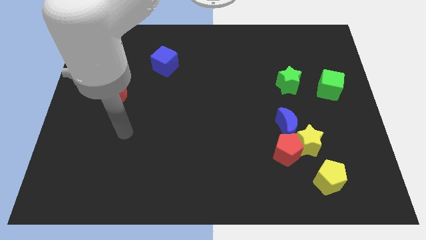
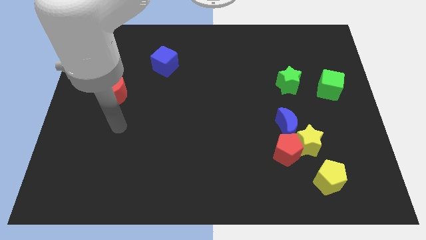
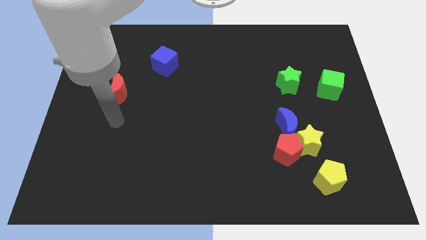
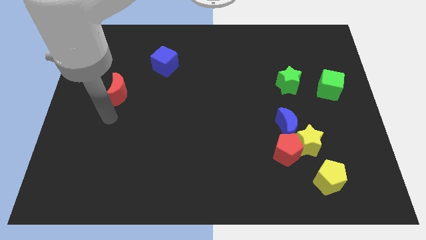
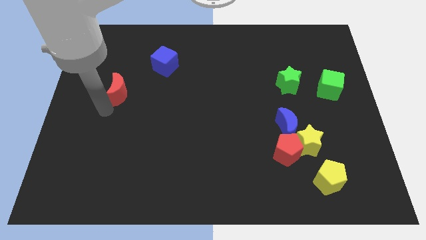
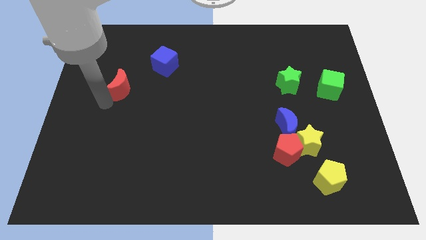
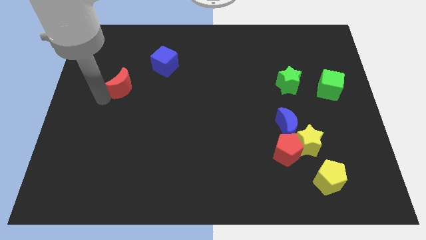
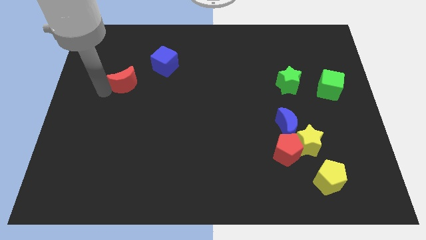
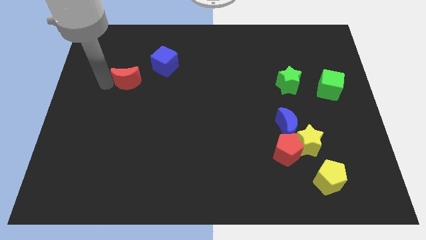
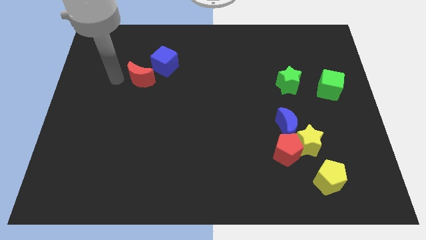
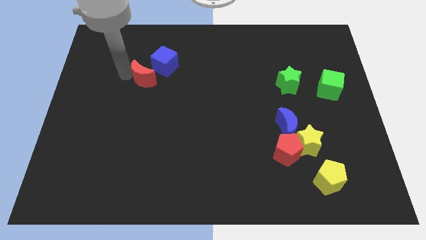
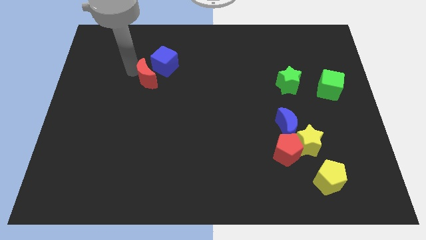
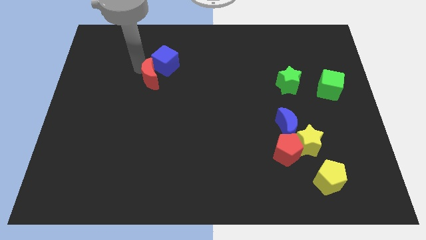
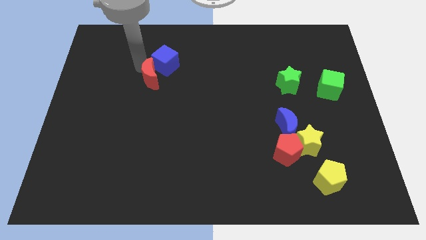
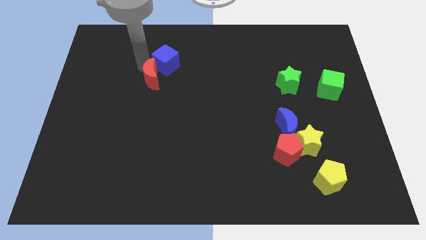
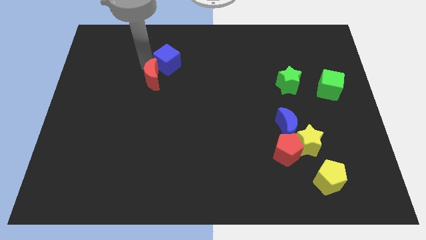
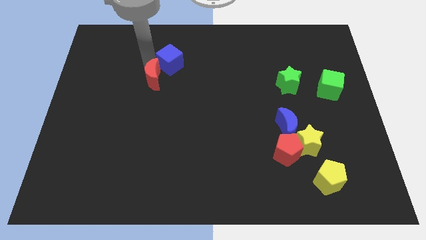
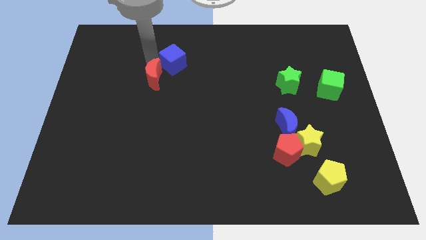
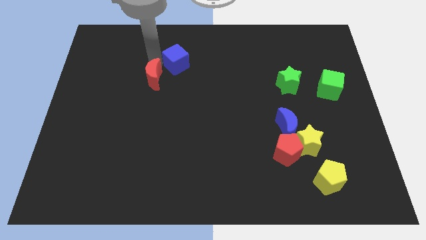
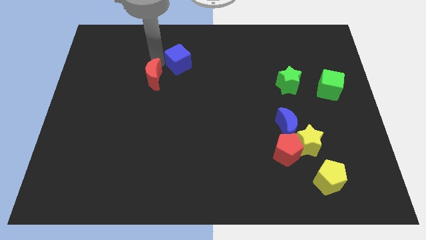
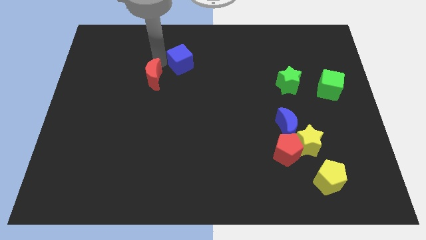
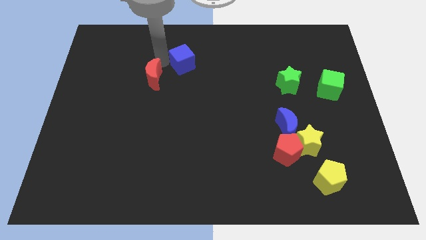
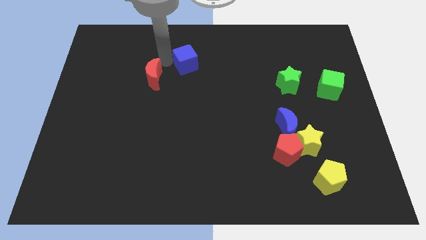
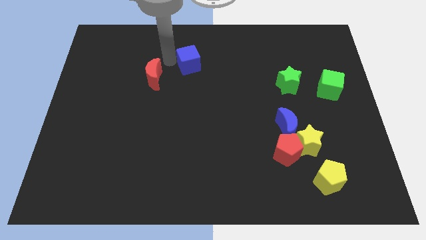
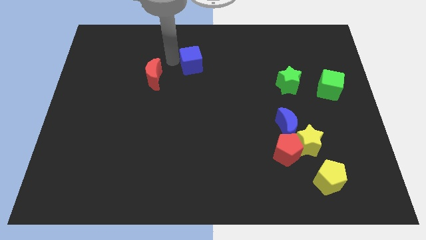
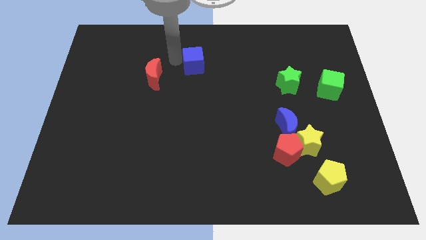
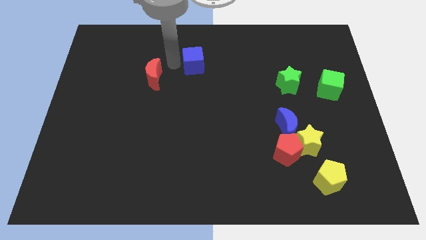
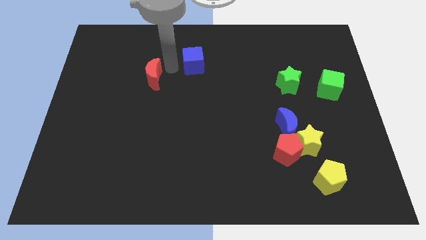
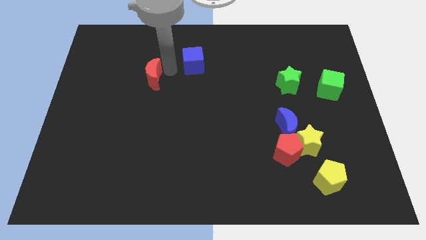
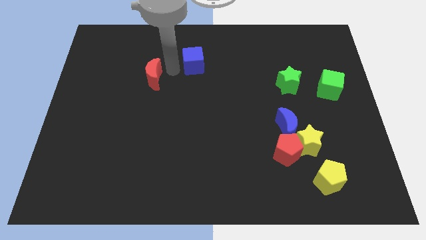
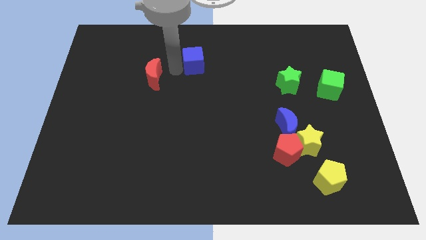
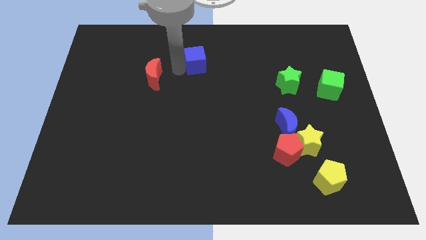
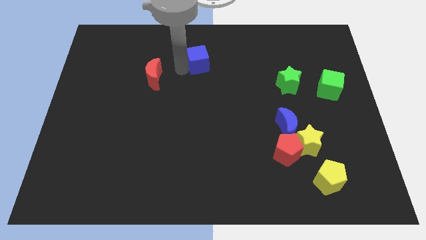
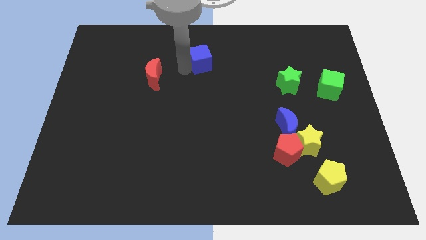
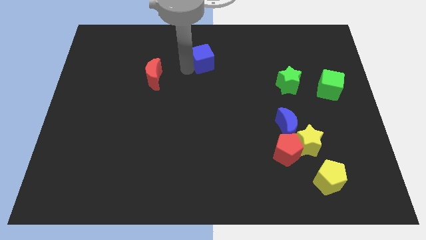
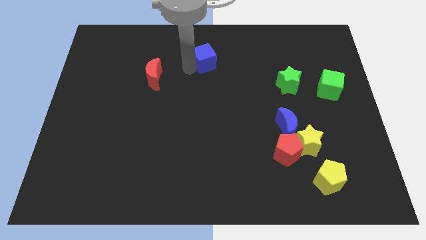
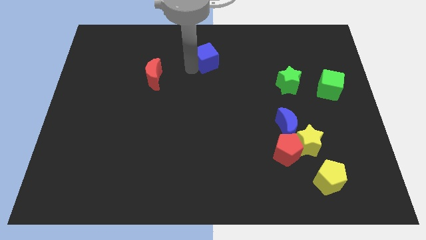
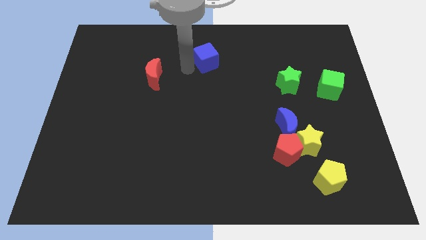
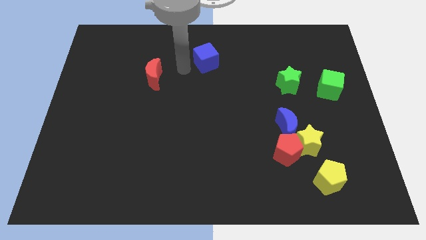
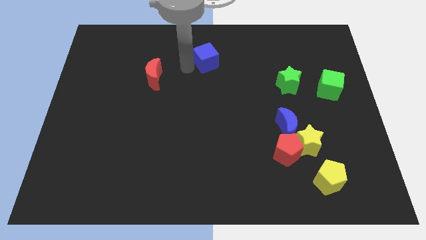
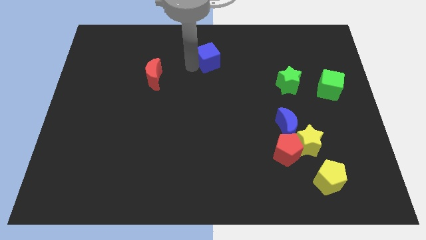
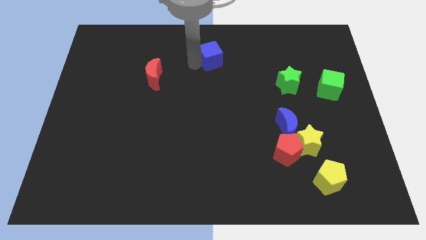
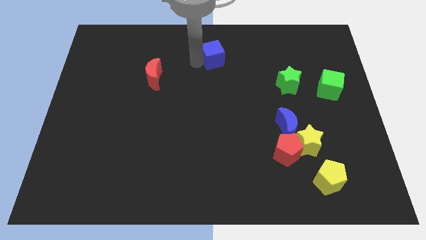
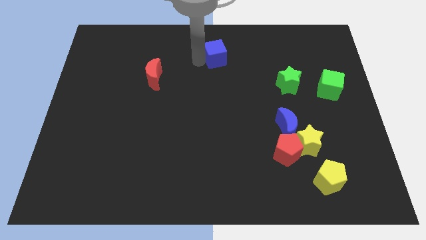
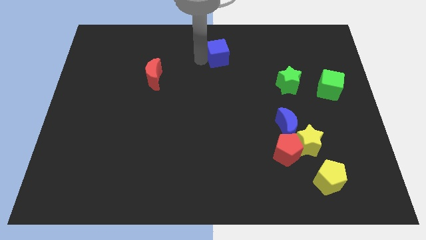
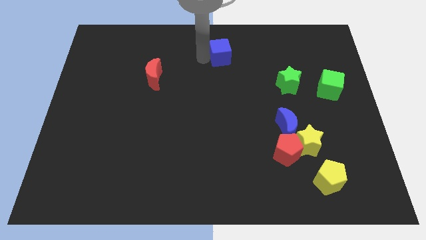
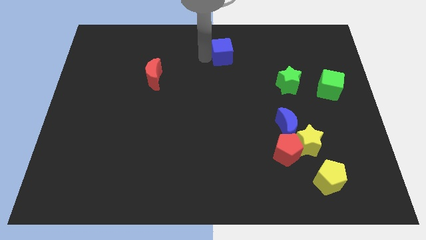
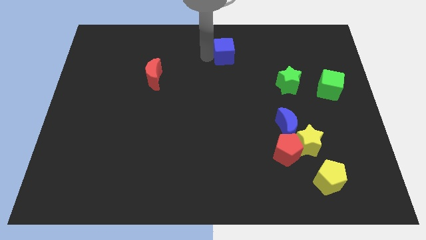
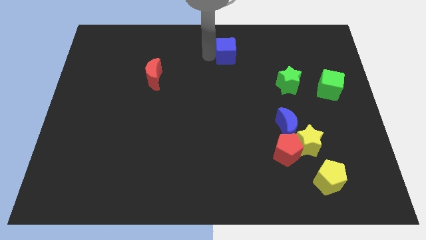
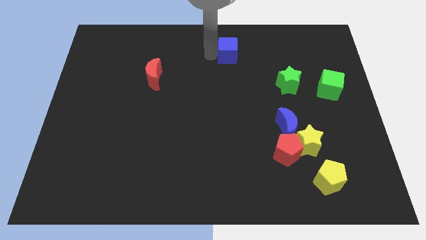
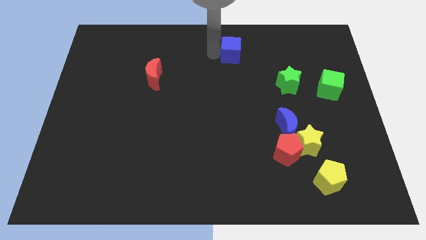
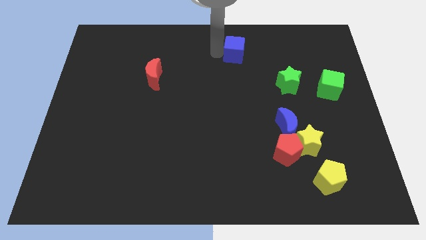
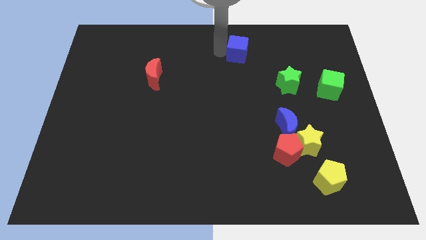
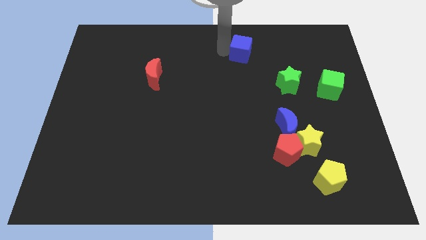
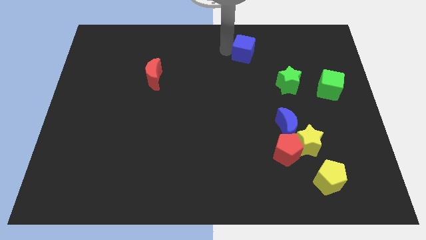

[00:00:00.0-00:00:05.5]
move the blue cube right

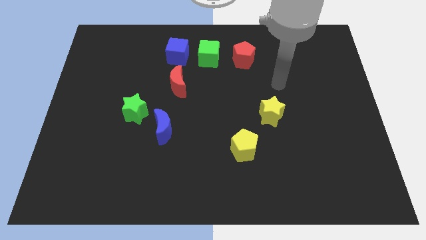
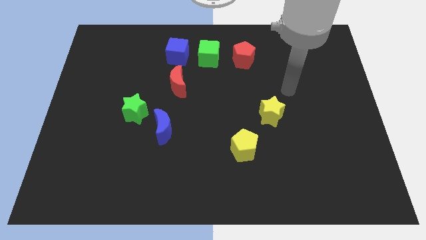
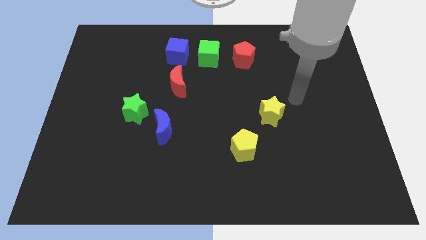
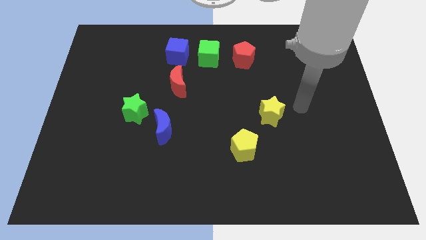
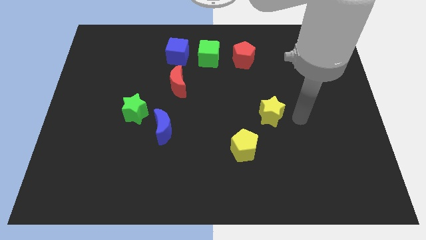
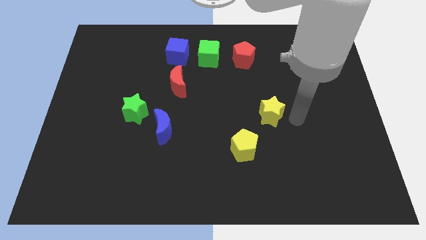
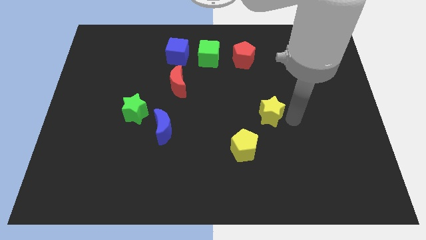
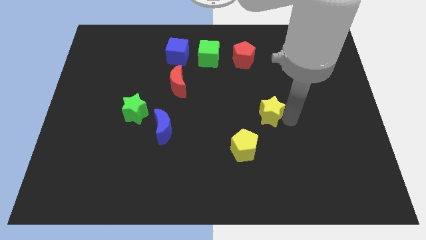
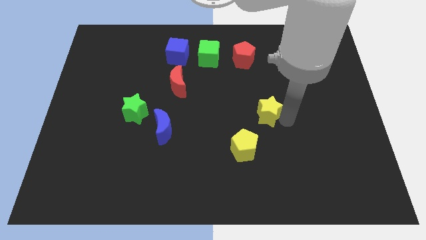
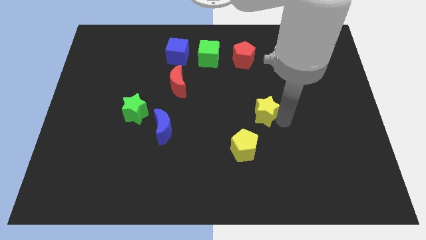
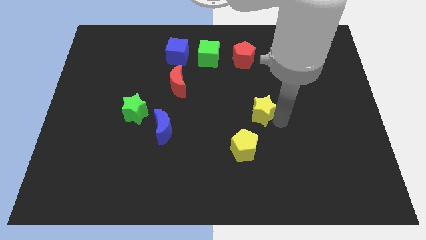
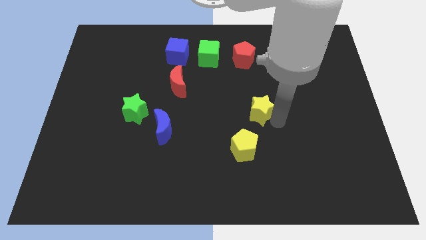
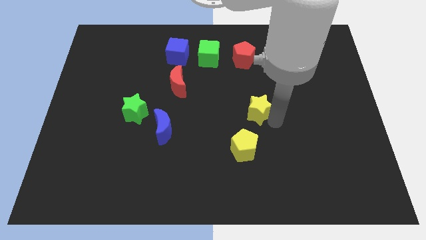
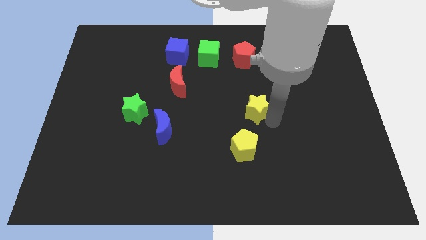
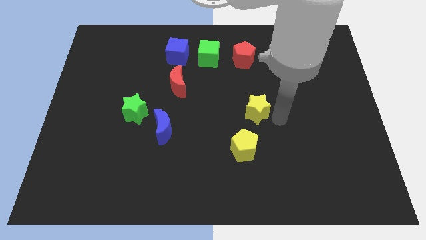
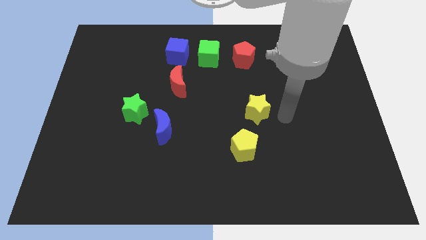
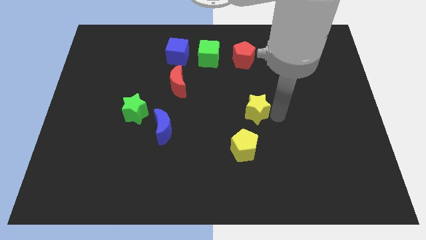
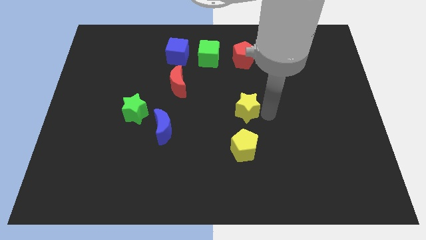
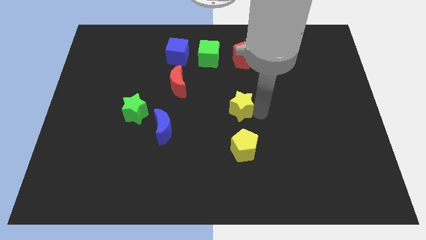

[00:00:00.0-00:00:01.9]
move the yellow star to the left somewhat

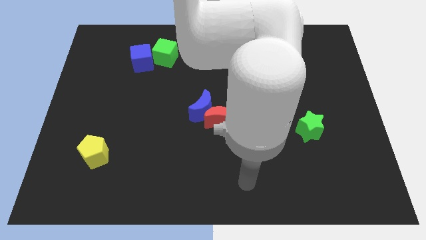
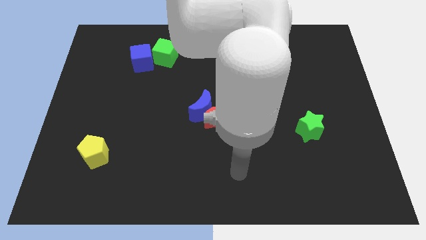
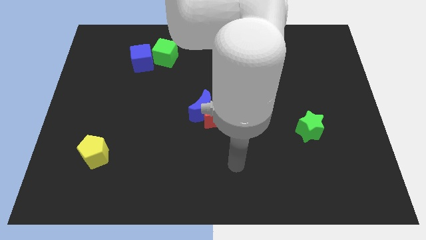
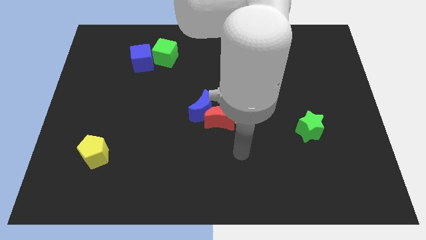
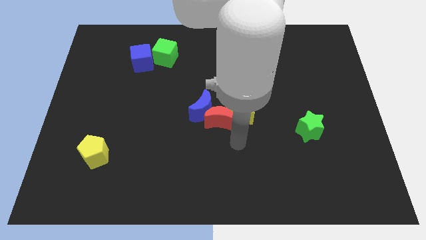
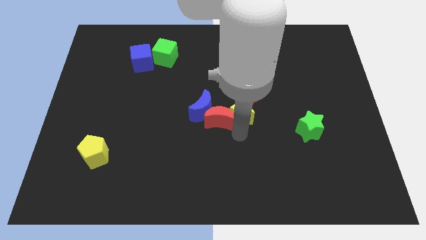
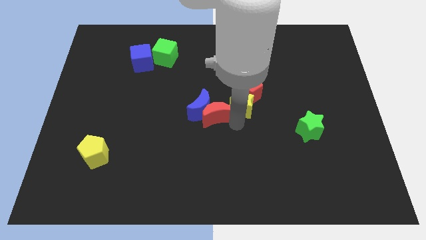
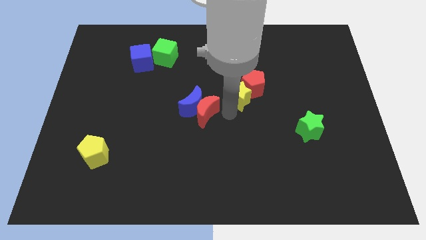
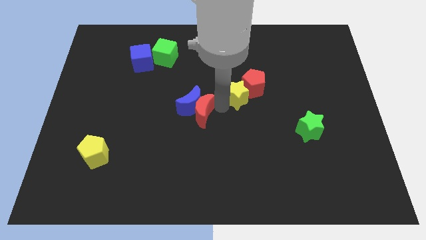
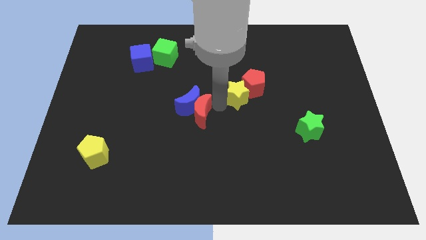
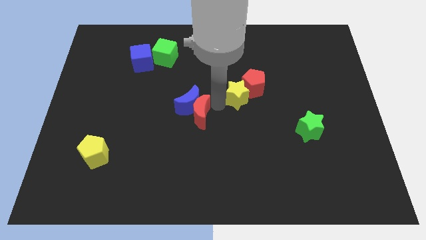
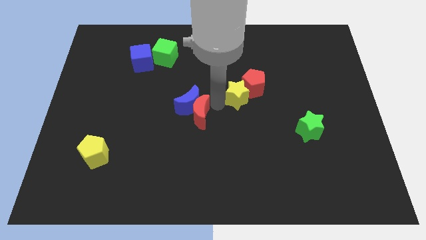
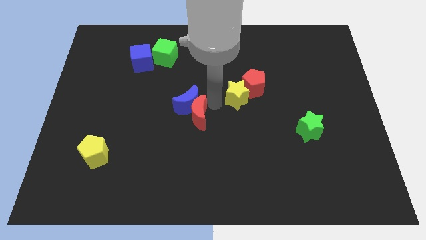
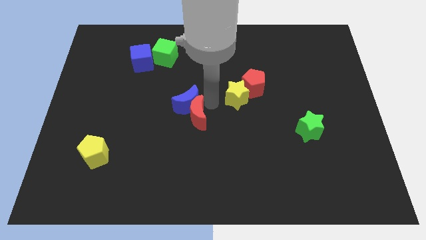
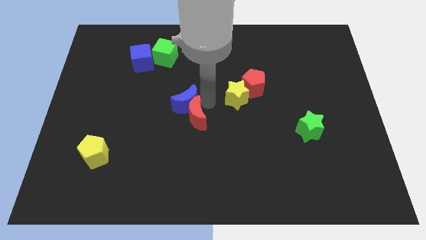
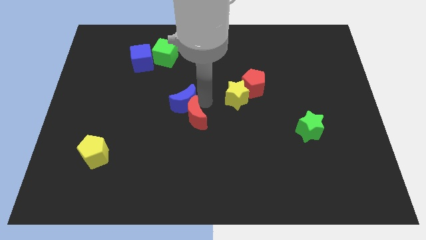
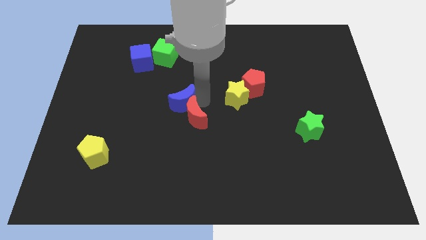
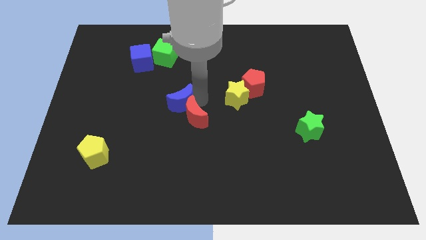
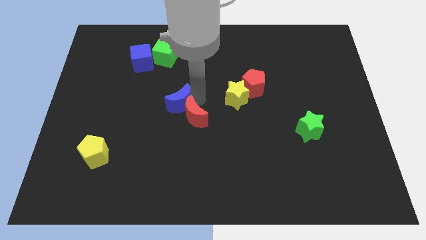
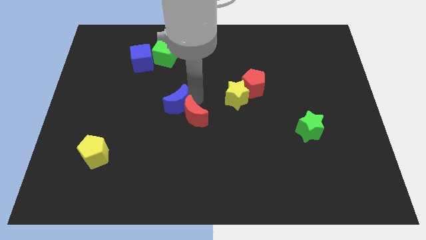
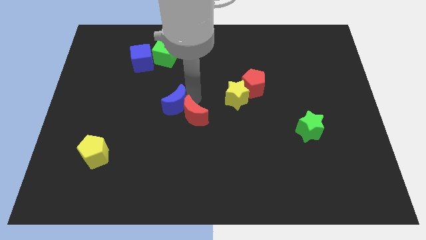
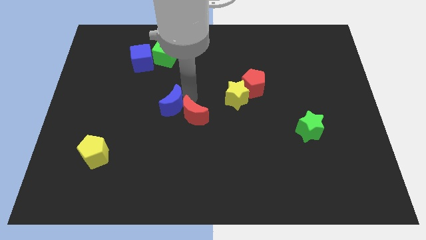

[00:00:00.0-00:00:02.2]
slightly move the blue moon to the left
